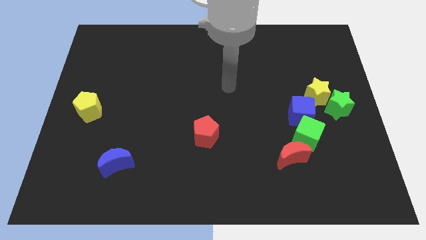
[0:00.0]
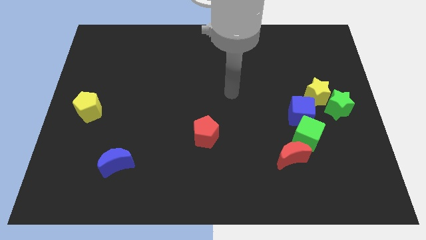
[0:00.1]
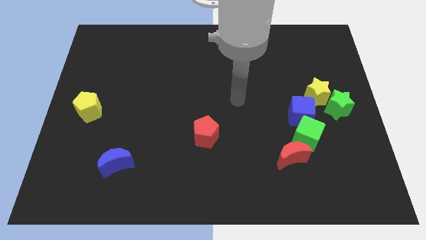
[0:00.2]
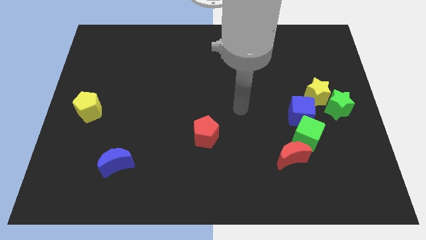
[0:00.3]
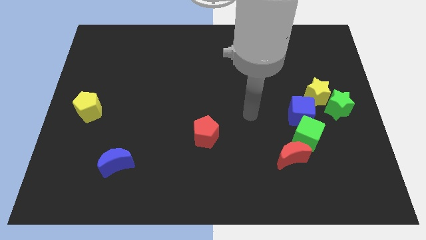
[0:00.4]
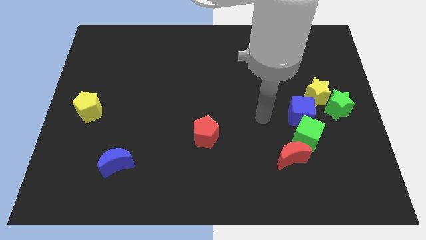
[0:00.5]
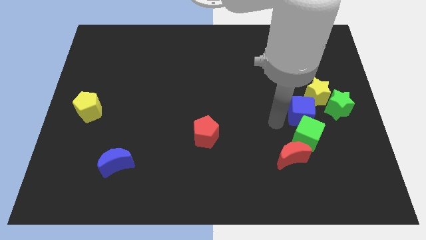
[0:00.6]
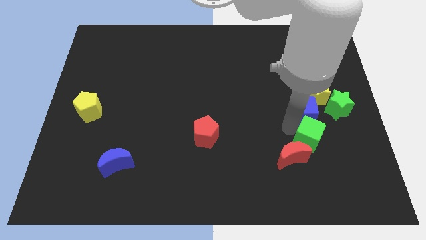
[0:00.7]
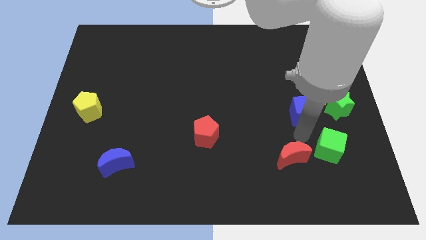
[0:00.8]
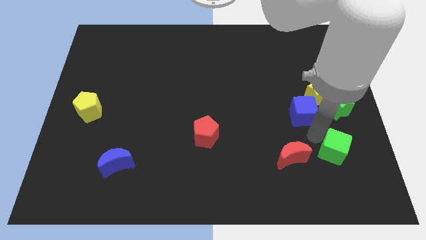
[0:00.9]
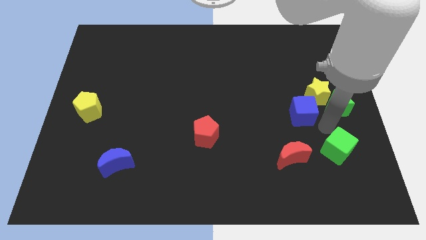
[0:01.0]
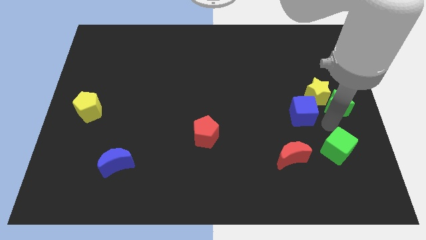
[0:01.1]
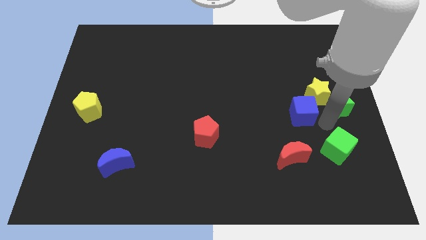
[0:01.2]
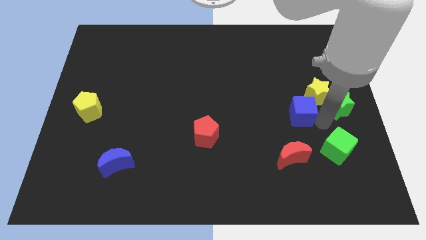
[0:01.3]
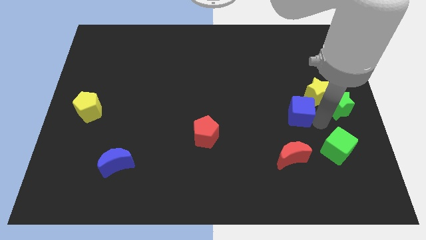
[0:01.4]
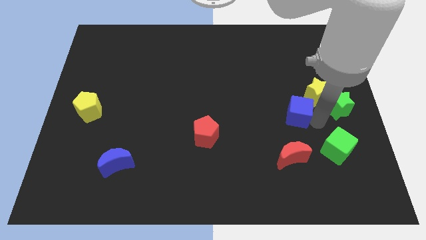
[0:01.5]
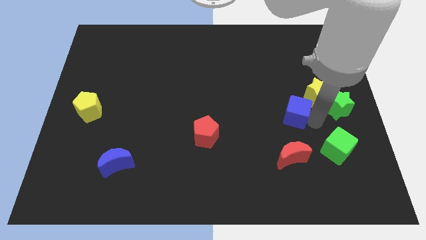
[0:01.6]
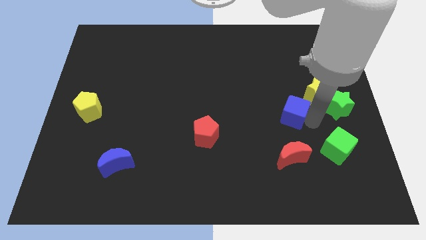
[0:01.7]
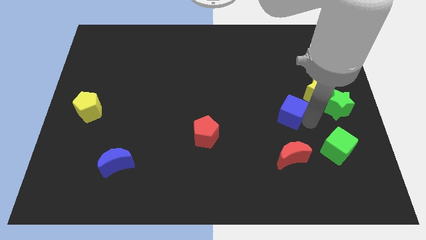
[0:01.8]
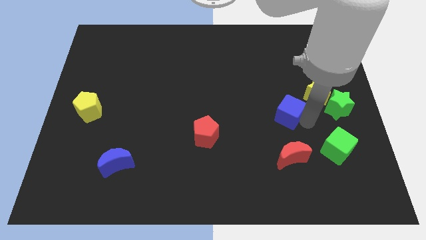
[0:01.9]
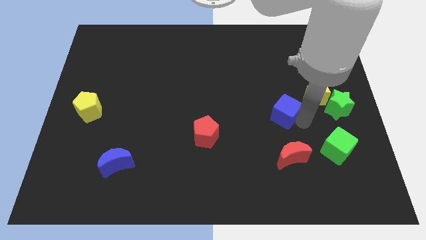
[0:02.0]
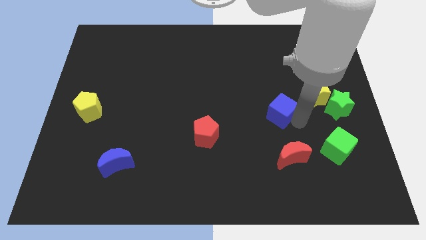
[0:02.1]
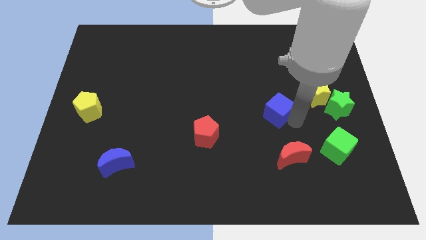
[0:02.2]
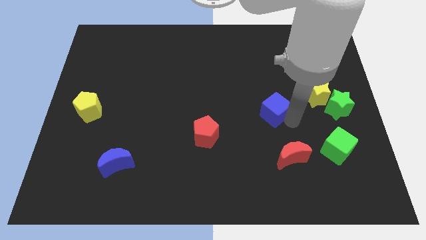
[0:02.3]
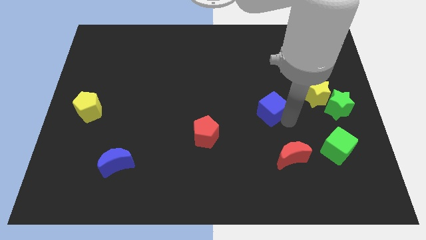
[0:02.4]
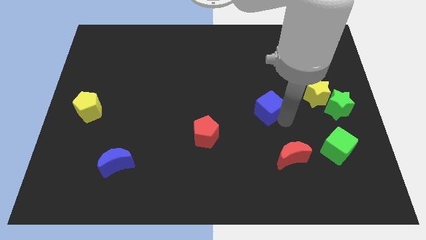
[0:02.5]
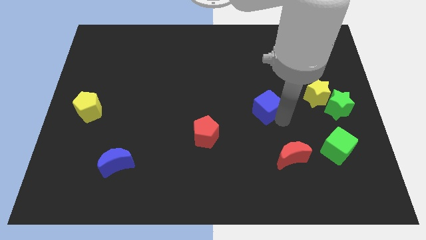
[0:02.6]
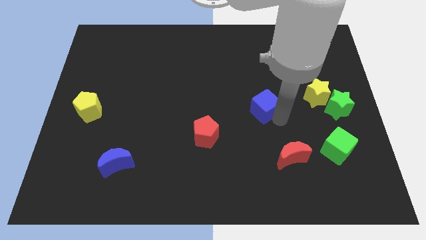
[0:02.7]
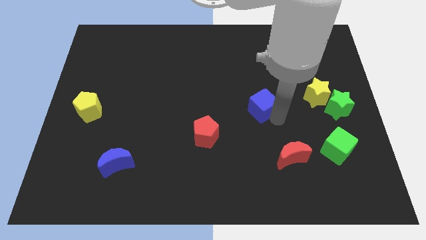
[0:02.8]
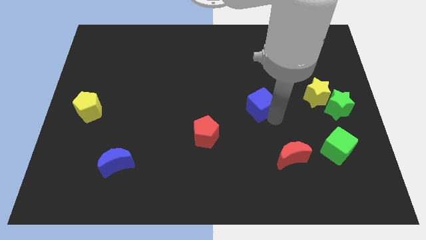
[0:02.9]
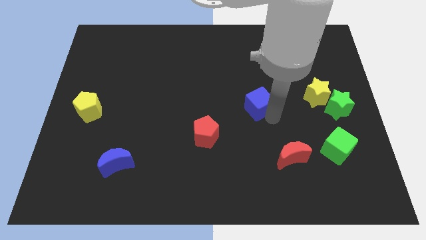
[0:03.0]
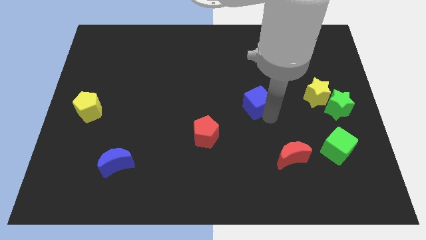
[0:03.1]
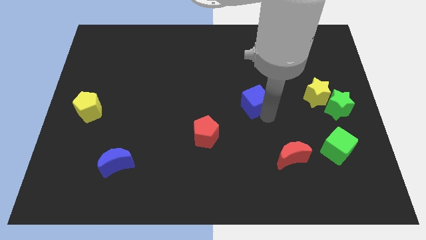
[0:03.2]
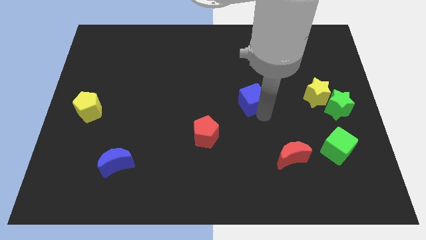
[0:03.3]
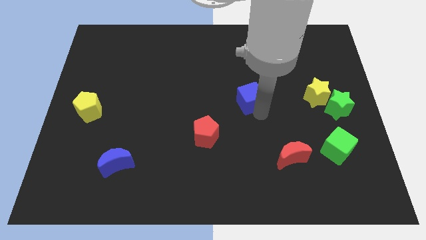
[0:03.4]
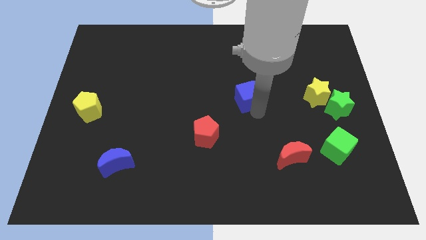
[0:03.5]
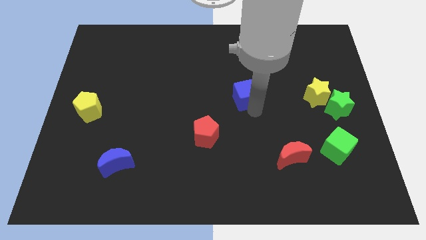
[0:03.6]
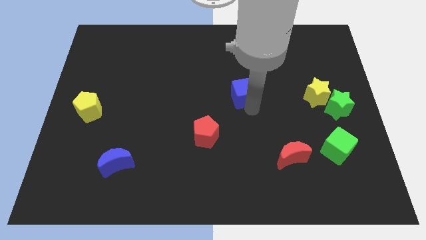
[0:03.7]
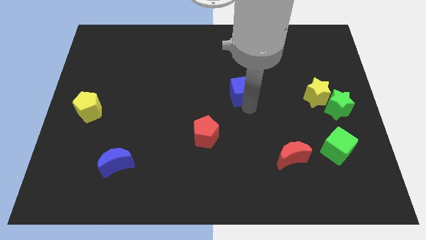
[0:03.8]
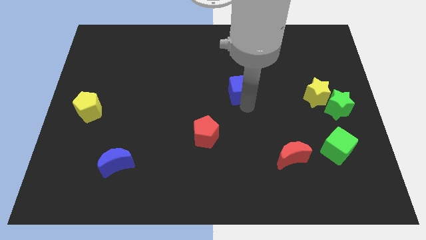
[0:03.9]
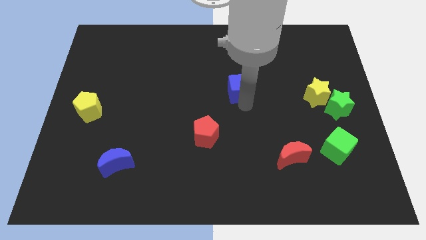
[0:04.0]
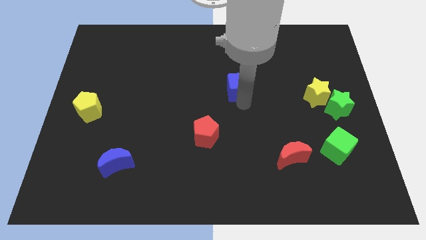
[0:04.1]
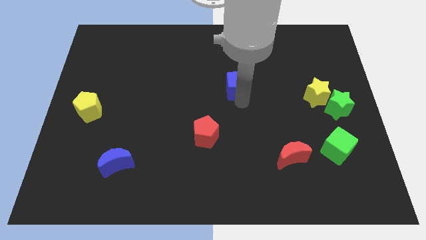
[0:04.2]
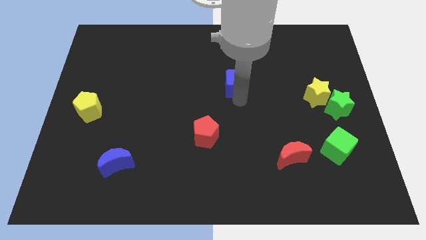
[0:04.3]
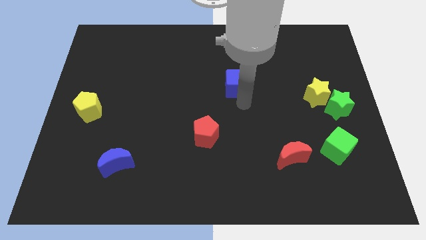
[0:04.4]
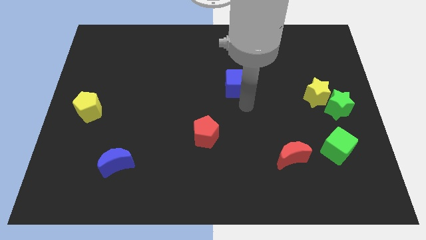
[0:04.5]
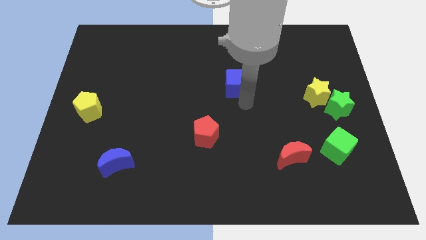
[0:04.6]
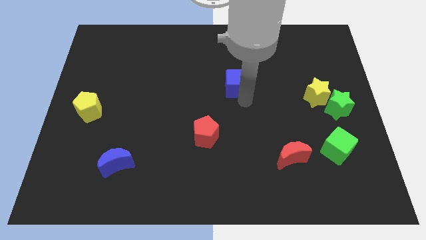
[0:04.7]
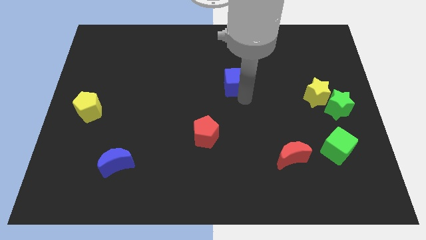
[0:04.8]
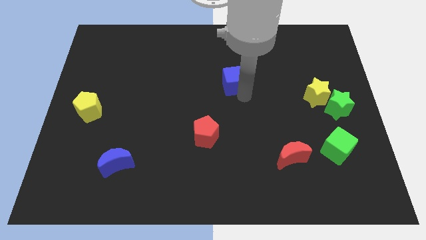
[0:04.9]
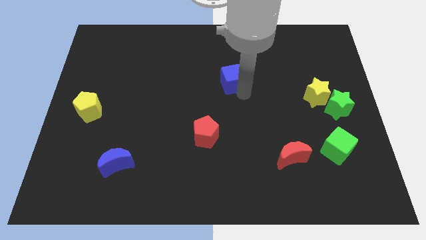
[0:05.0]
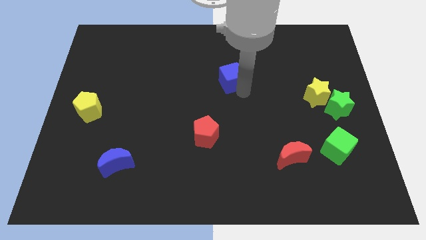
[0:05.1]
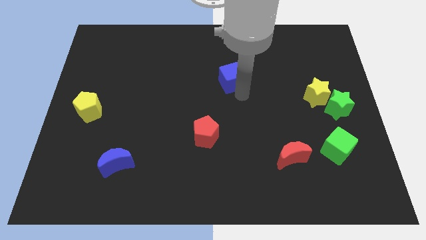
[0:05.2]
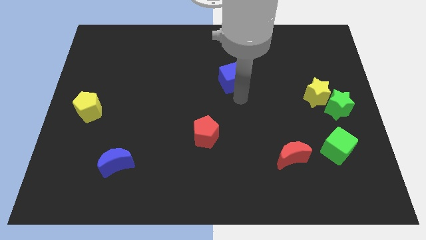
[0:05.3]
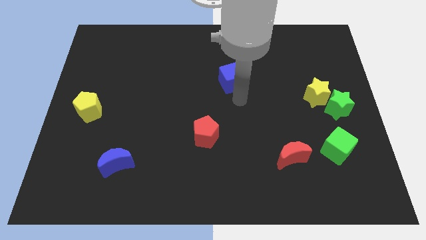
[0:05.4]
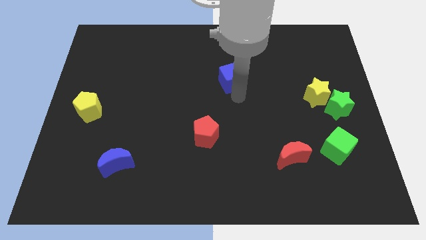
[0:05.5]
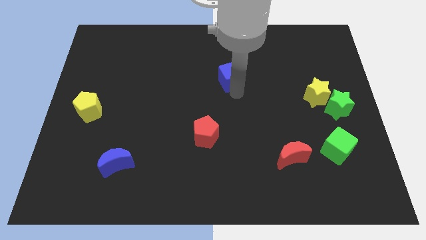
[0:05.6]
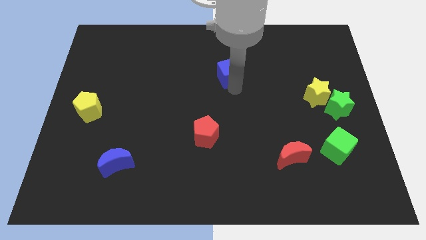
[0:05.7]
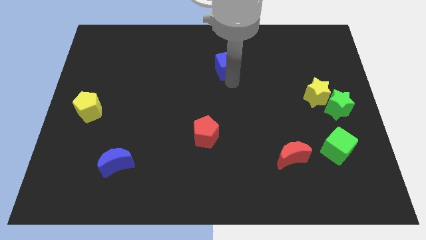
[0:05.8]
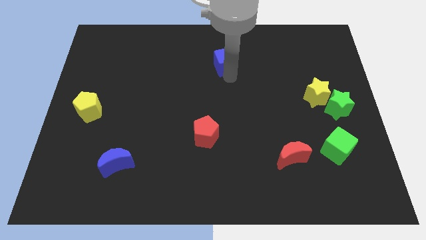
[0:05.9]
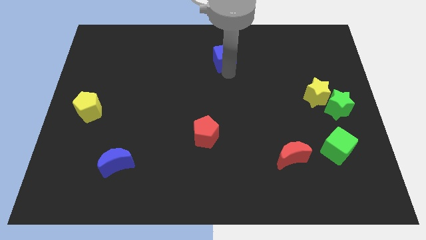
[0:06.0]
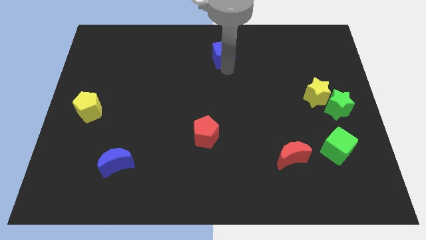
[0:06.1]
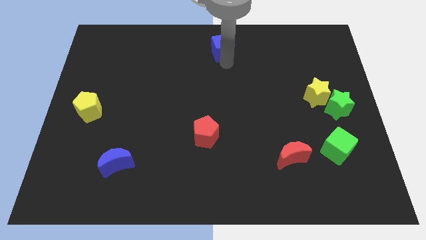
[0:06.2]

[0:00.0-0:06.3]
move the blue cube to the towards your base
